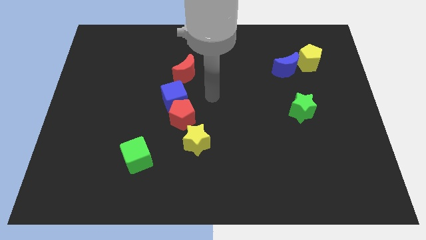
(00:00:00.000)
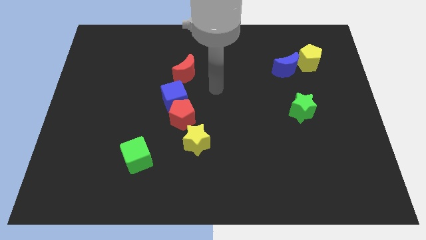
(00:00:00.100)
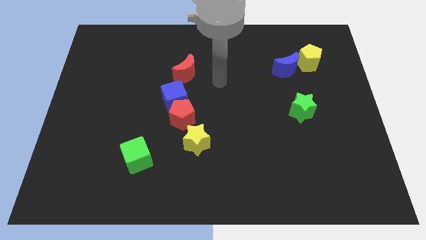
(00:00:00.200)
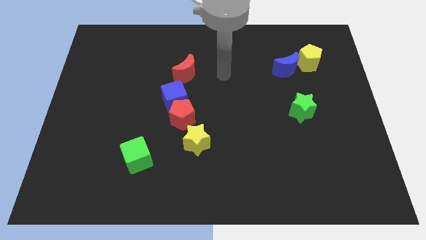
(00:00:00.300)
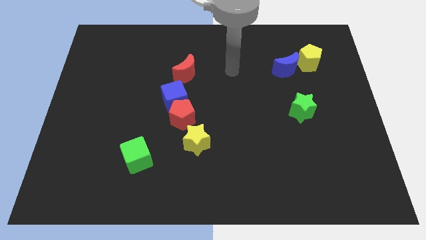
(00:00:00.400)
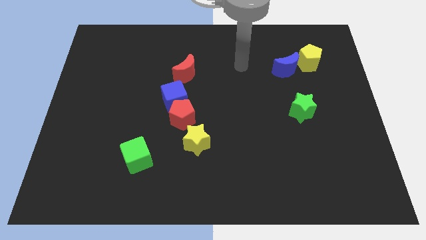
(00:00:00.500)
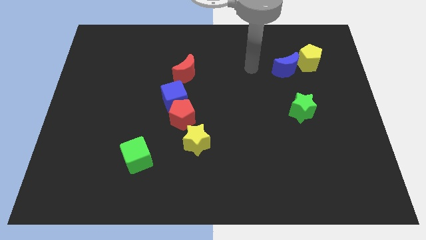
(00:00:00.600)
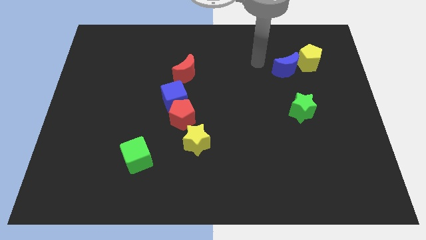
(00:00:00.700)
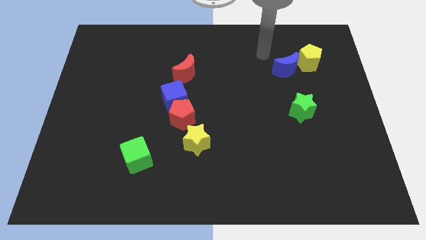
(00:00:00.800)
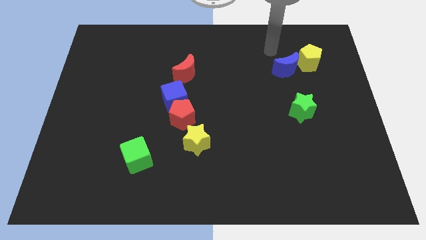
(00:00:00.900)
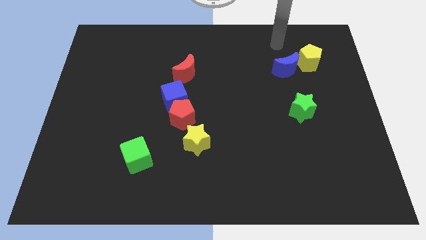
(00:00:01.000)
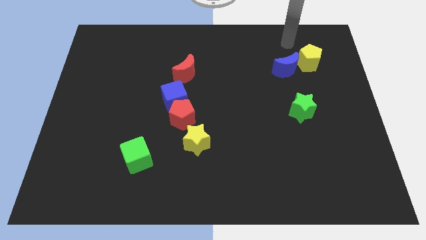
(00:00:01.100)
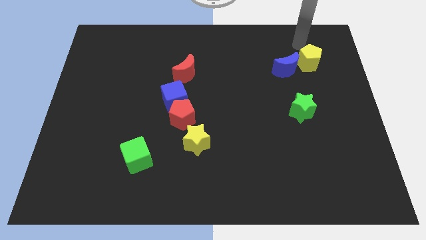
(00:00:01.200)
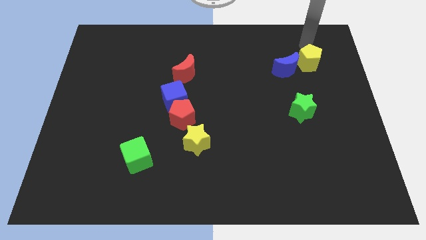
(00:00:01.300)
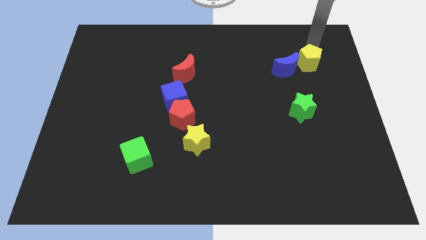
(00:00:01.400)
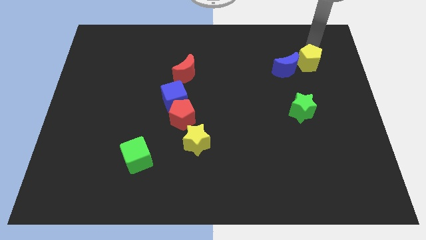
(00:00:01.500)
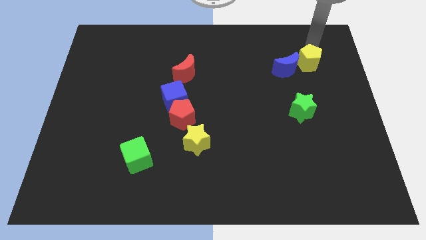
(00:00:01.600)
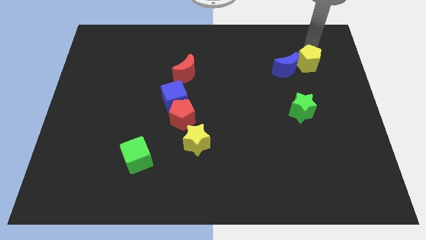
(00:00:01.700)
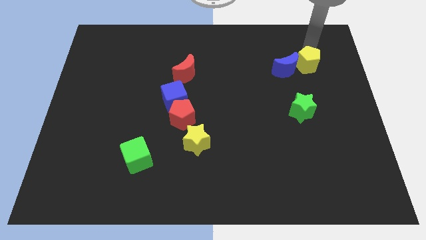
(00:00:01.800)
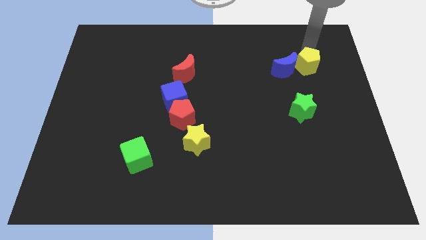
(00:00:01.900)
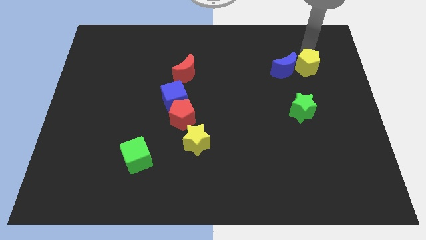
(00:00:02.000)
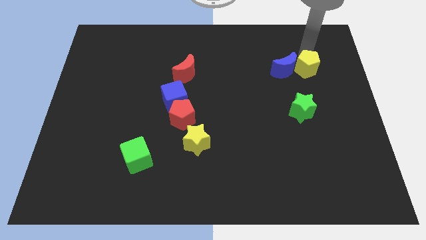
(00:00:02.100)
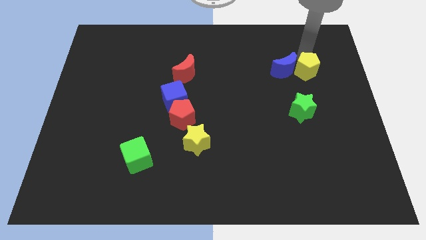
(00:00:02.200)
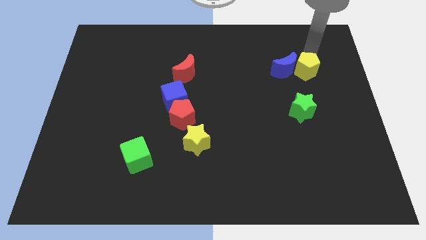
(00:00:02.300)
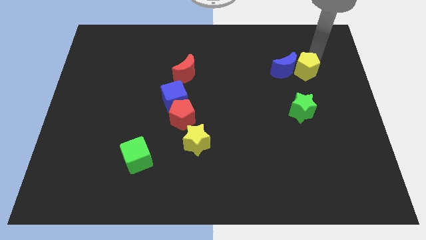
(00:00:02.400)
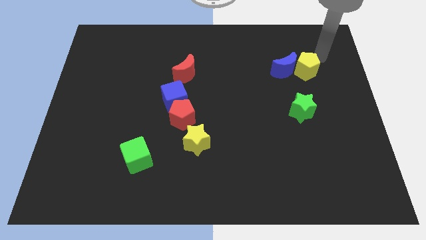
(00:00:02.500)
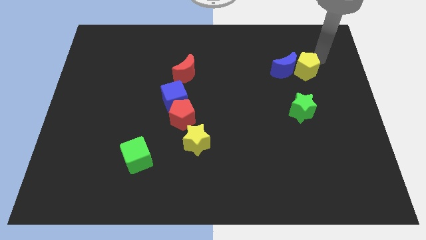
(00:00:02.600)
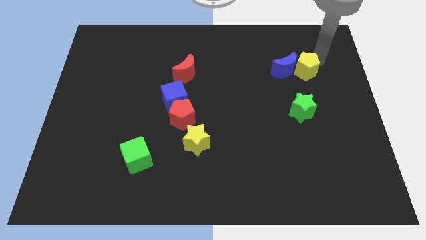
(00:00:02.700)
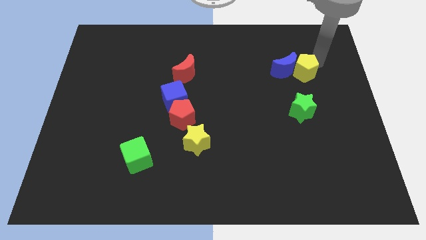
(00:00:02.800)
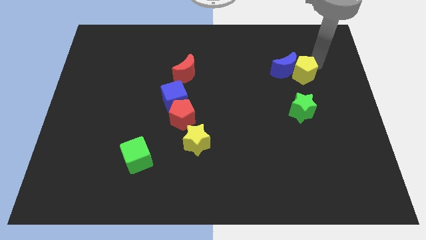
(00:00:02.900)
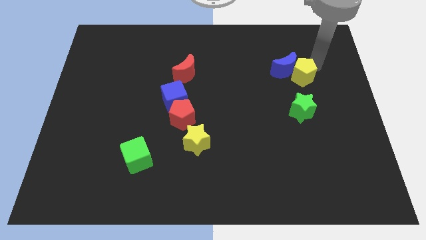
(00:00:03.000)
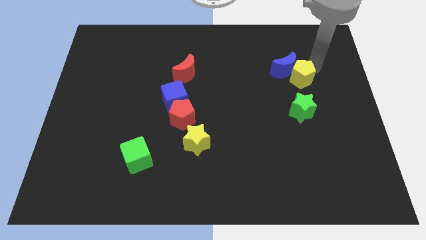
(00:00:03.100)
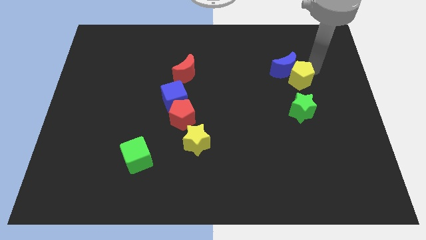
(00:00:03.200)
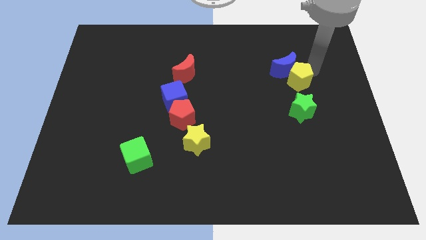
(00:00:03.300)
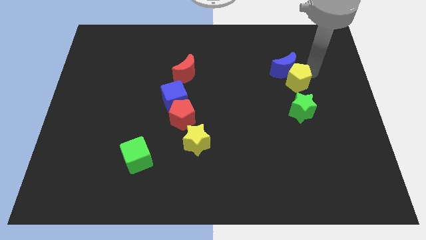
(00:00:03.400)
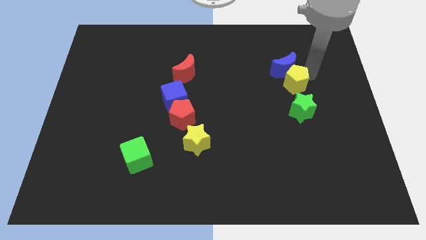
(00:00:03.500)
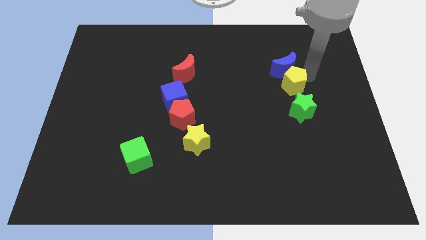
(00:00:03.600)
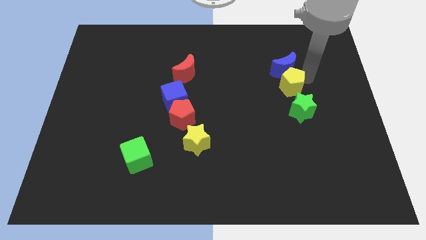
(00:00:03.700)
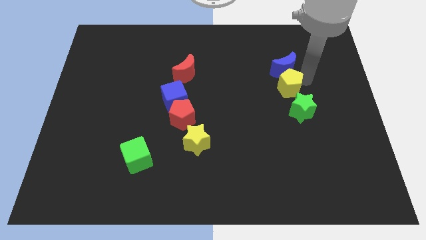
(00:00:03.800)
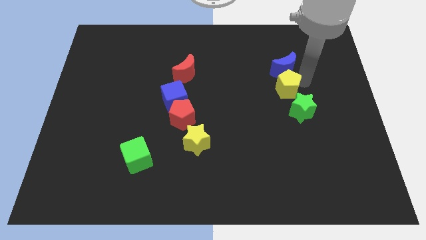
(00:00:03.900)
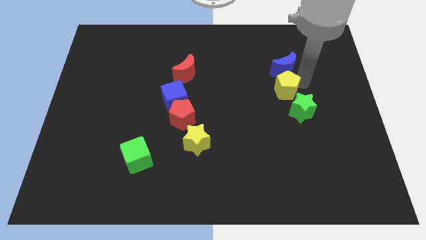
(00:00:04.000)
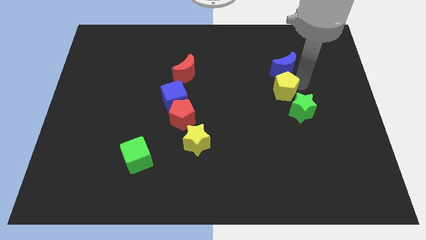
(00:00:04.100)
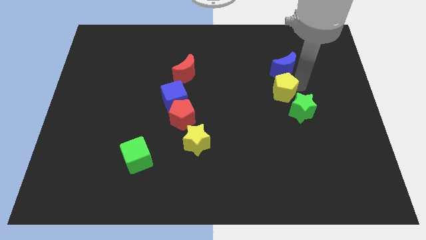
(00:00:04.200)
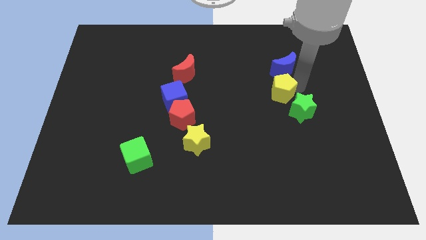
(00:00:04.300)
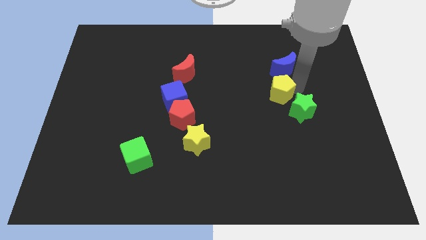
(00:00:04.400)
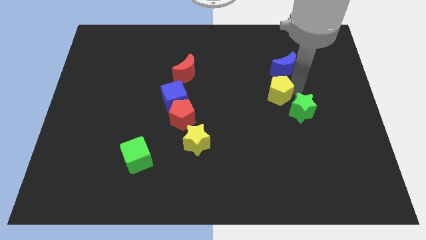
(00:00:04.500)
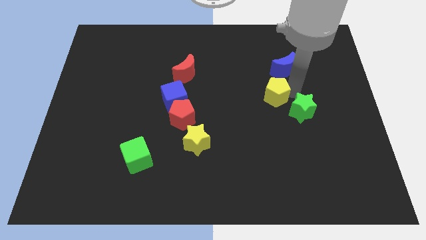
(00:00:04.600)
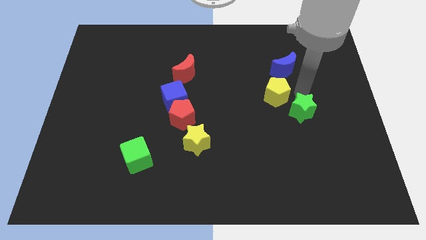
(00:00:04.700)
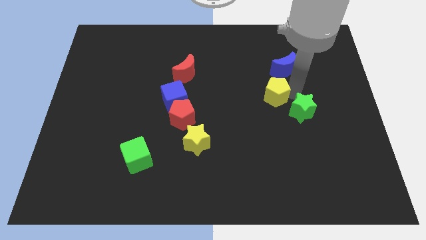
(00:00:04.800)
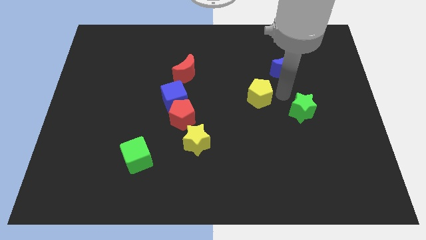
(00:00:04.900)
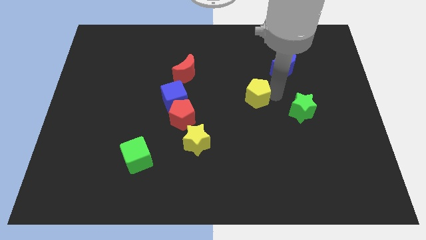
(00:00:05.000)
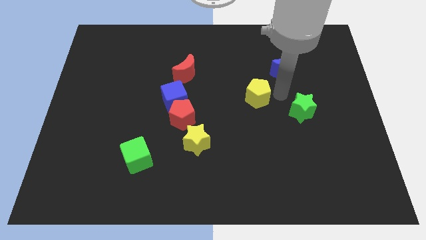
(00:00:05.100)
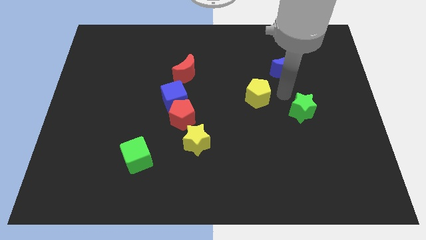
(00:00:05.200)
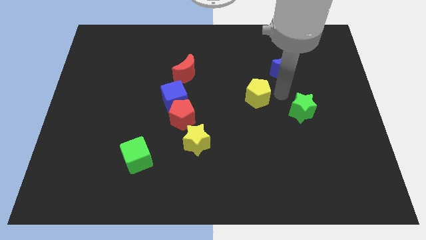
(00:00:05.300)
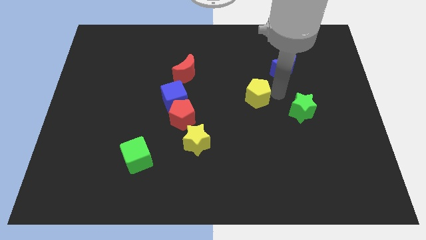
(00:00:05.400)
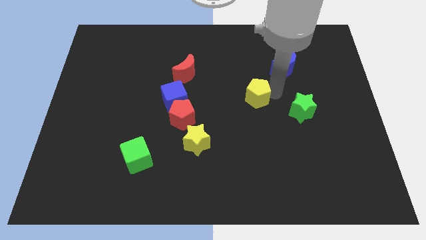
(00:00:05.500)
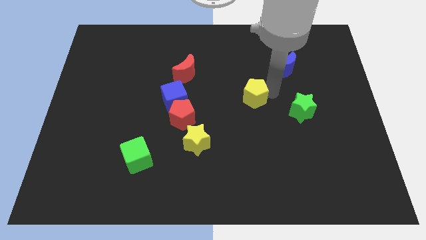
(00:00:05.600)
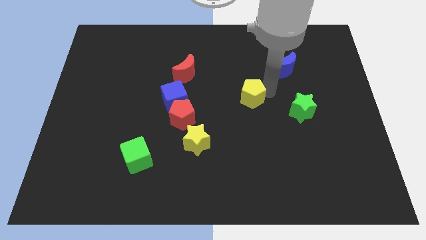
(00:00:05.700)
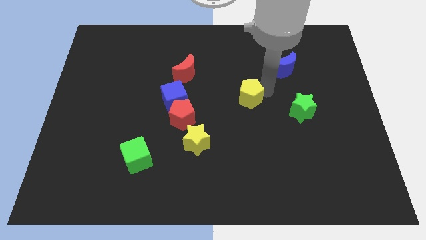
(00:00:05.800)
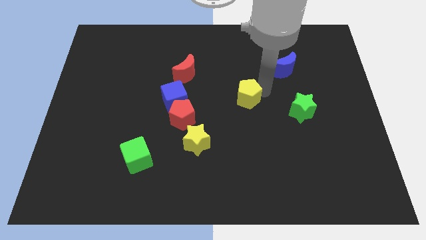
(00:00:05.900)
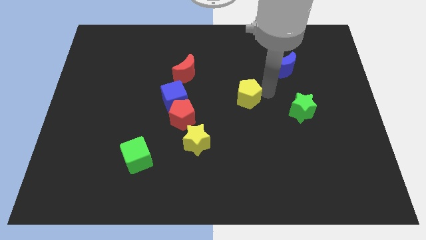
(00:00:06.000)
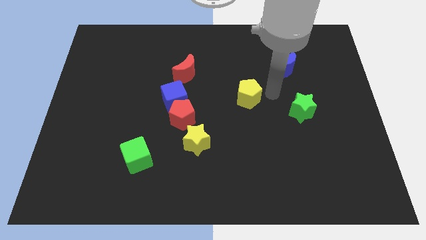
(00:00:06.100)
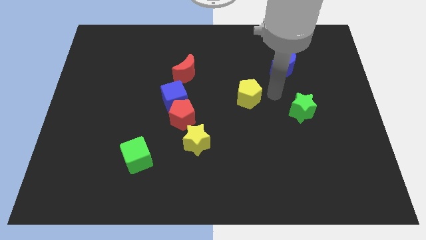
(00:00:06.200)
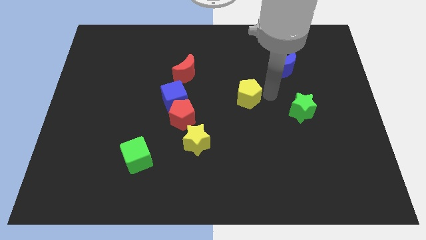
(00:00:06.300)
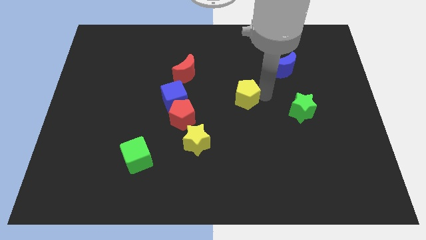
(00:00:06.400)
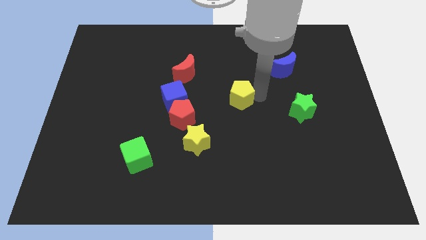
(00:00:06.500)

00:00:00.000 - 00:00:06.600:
move the yellow pentagon just right of the blue cube
